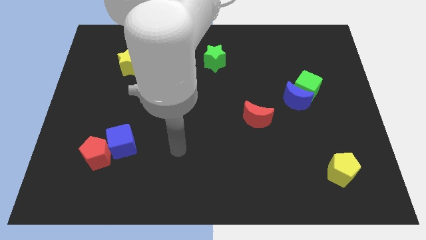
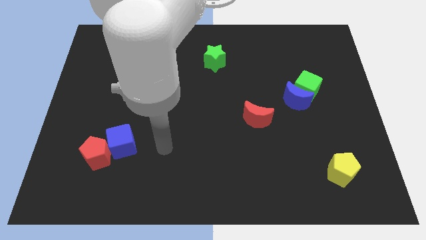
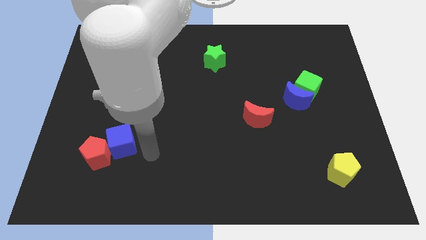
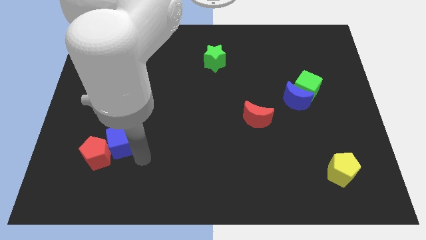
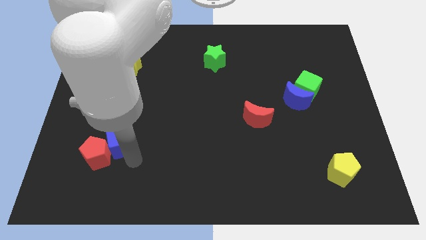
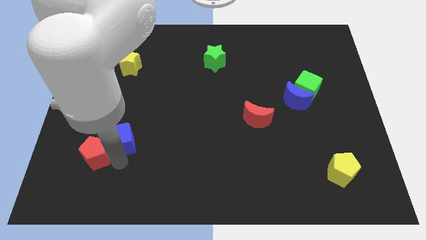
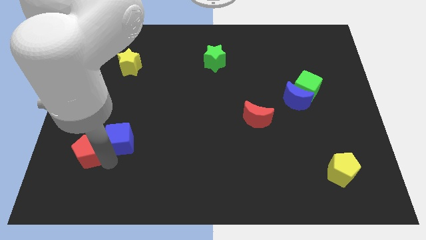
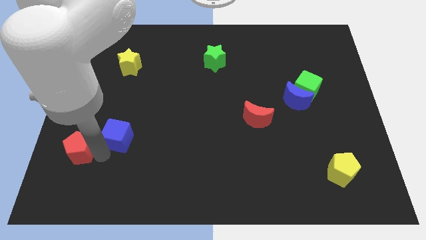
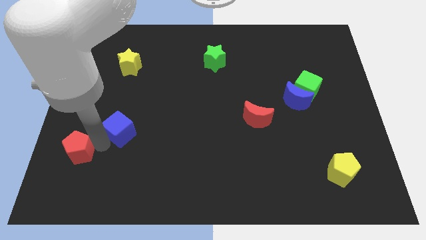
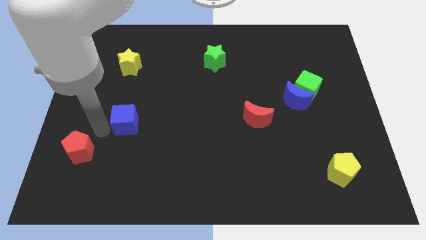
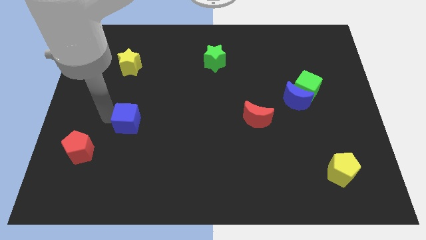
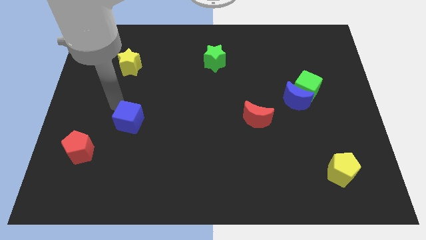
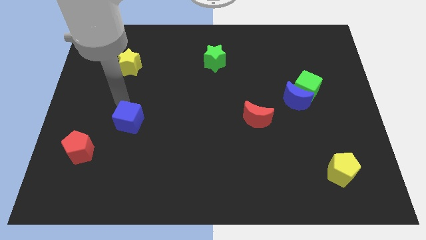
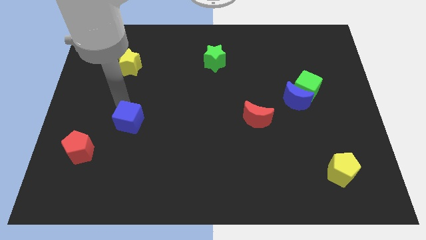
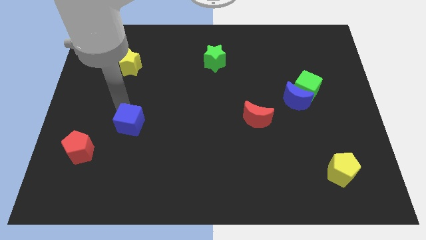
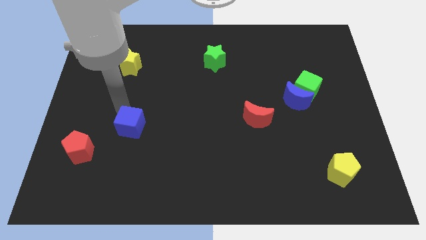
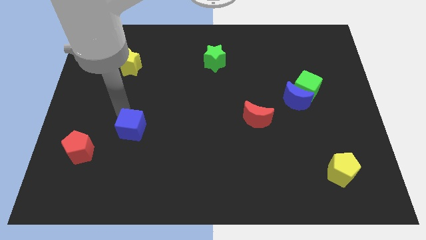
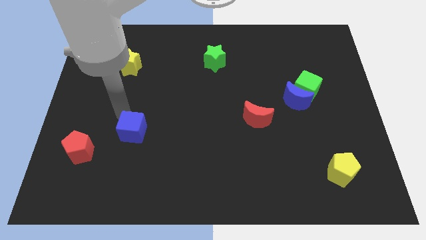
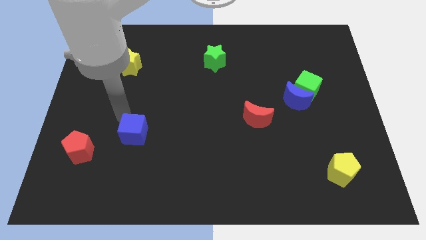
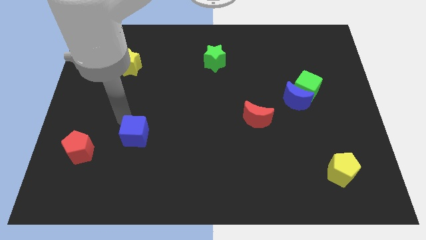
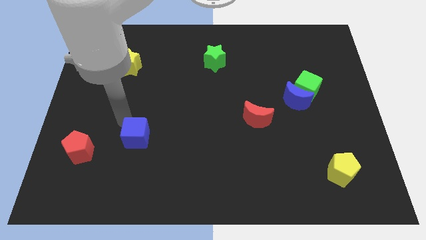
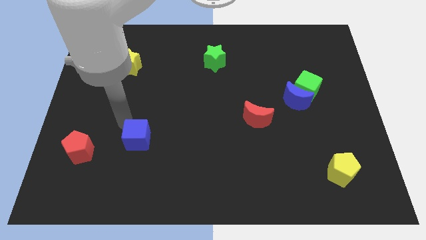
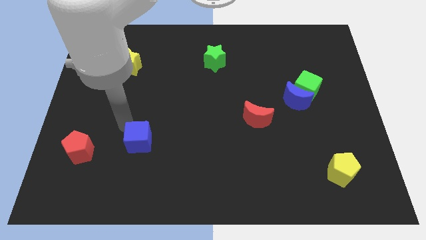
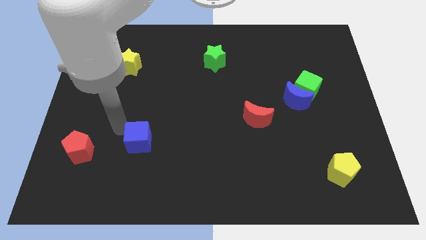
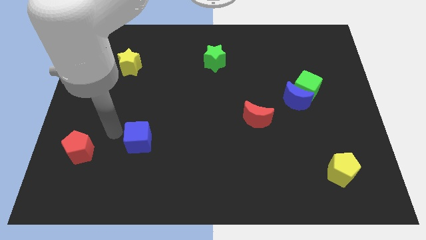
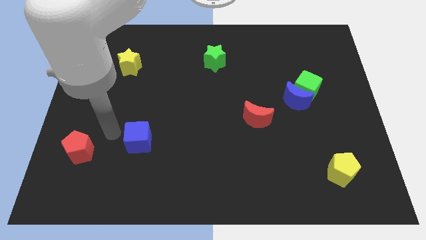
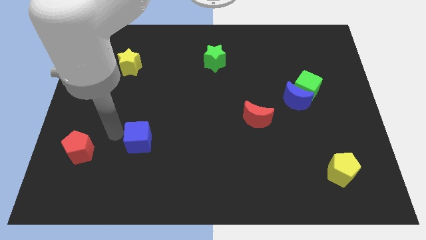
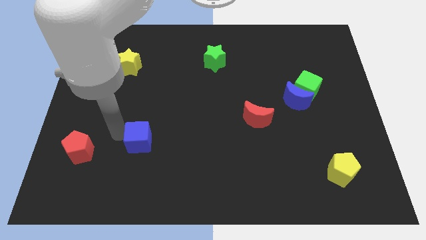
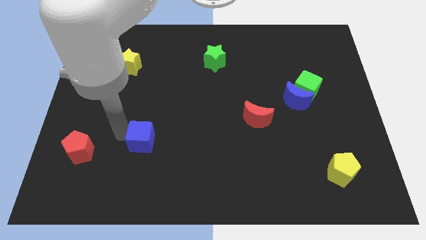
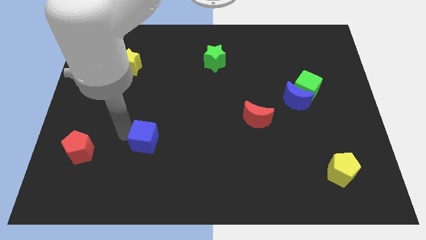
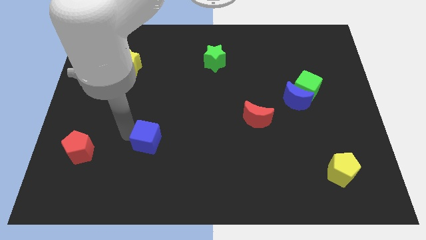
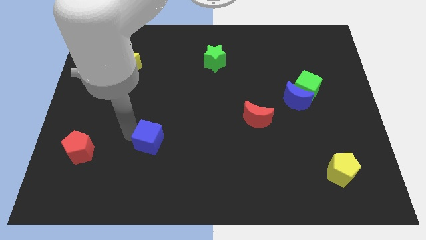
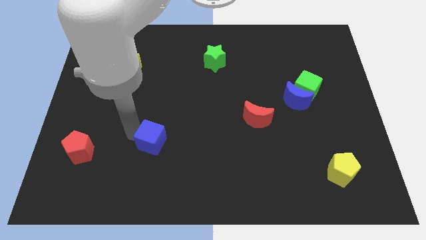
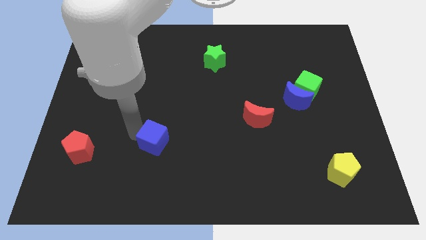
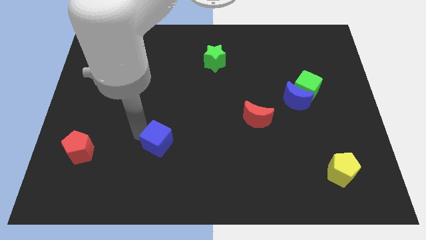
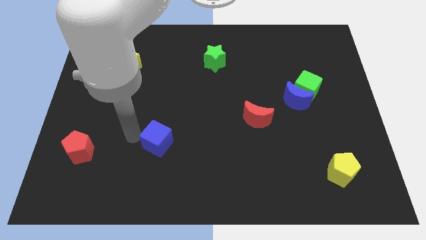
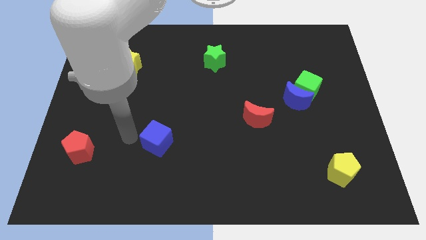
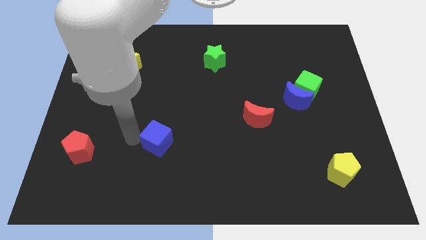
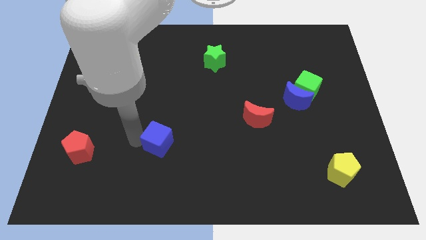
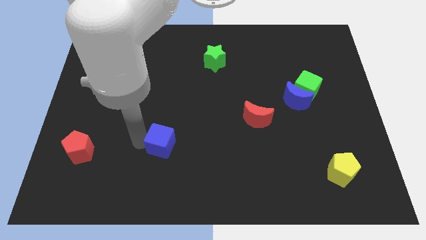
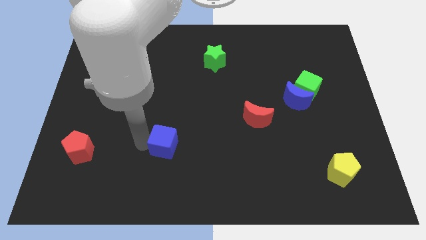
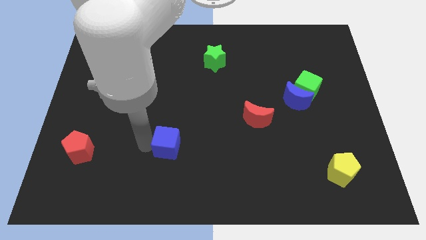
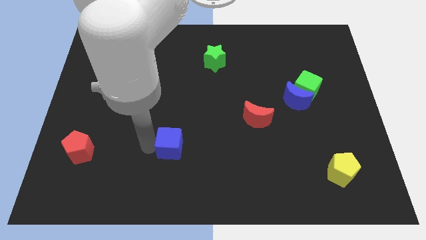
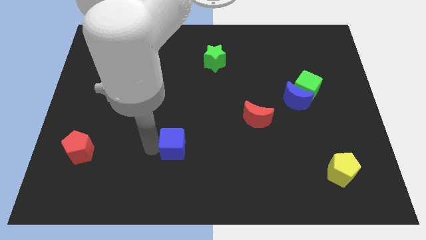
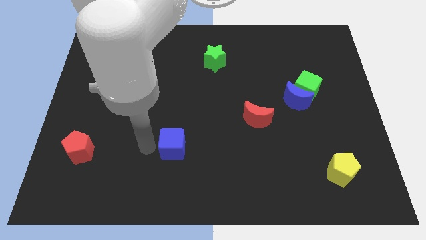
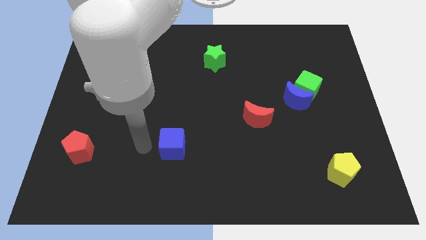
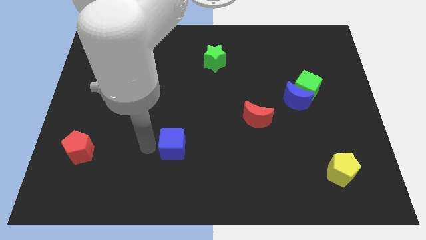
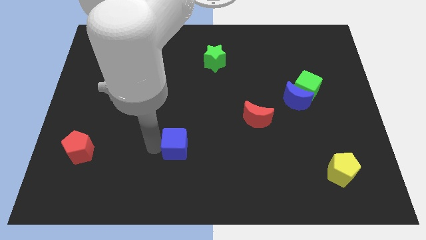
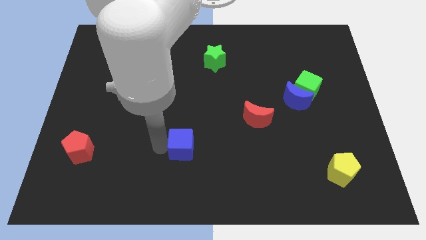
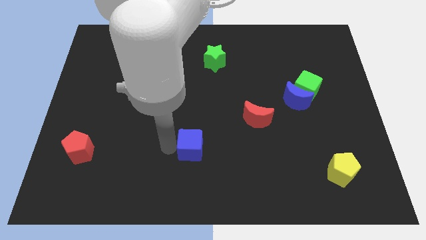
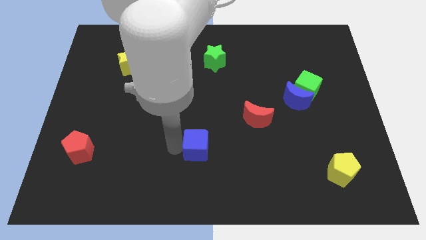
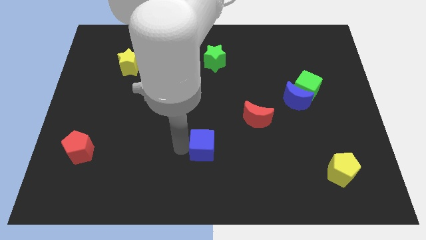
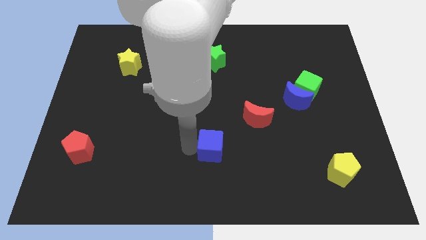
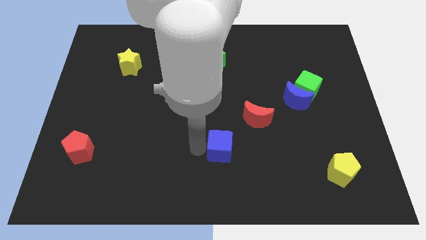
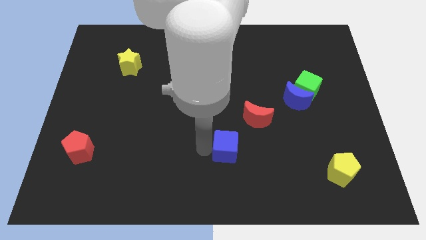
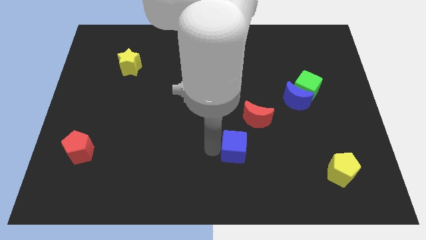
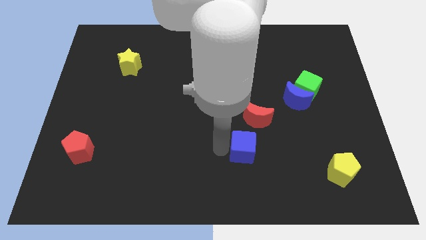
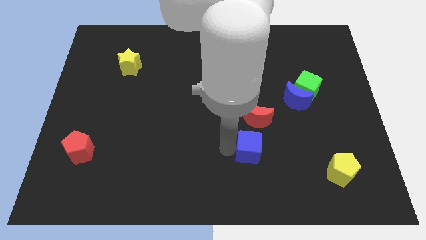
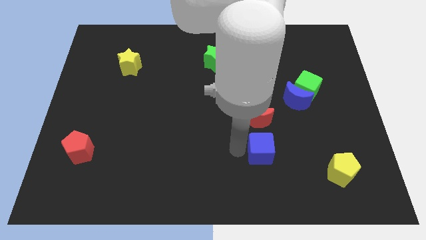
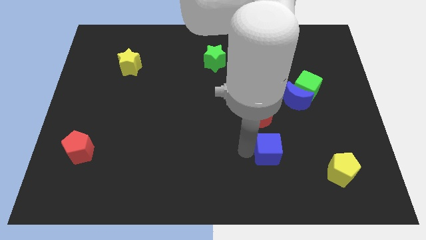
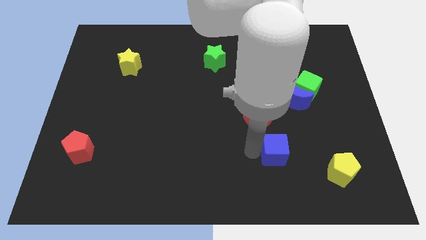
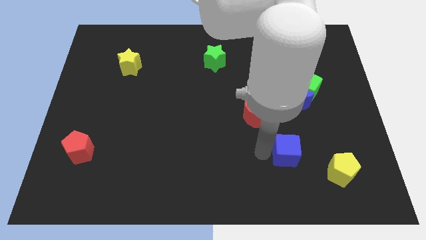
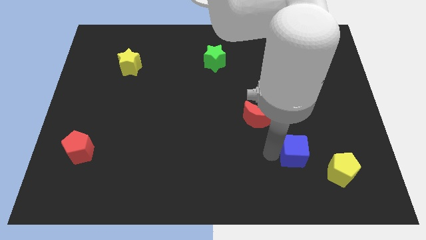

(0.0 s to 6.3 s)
slide the blue cube to the top left of the yellow pentagon

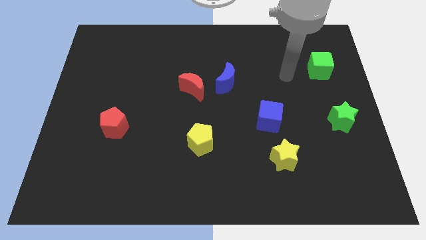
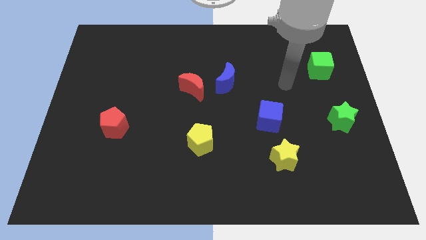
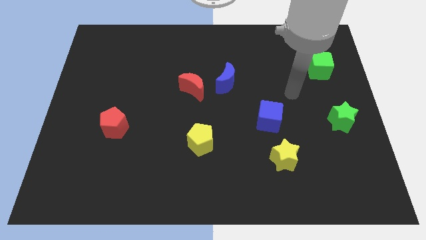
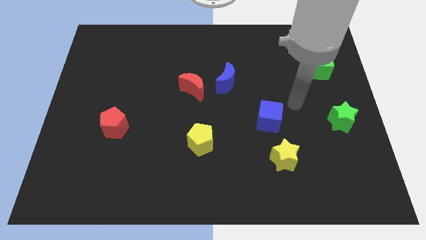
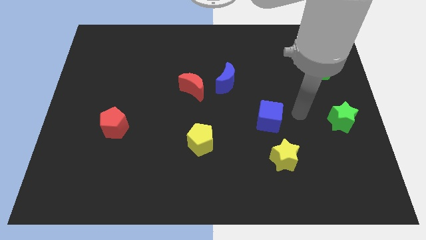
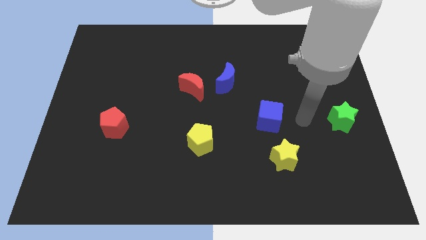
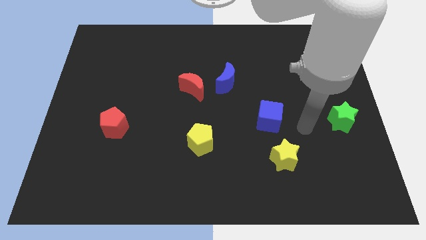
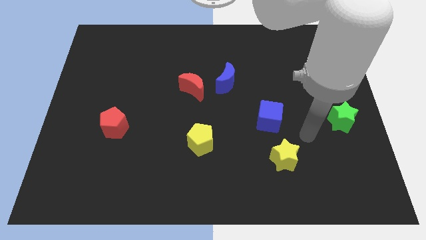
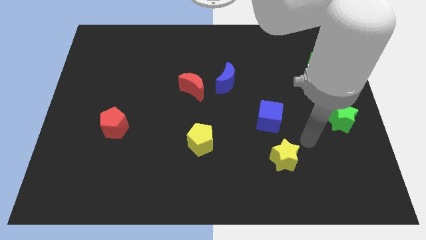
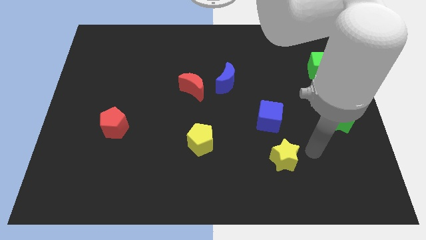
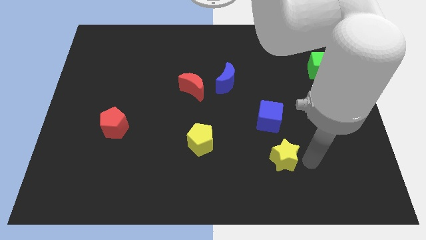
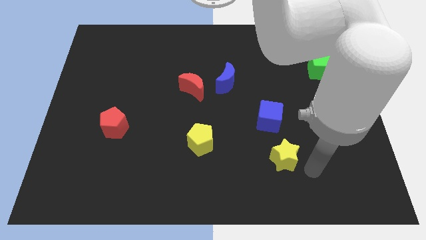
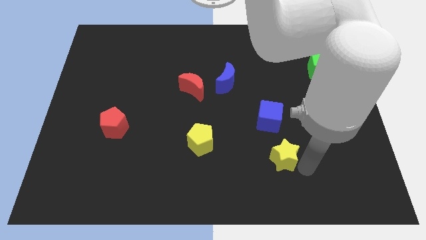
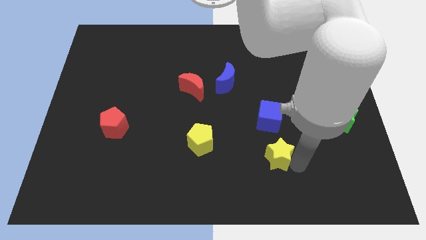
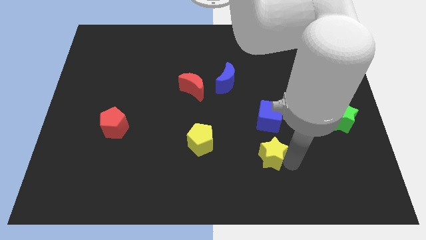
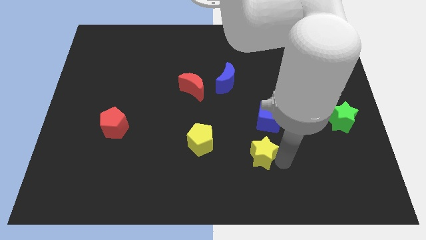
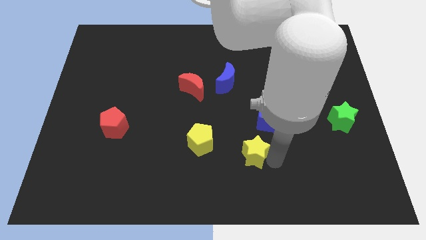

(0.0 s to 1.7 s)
push the yellow star to the bottom left of the blue cube
